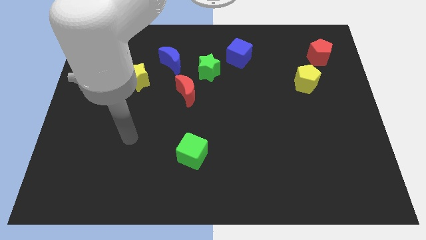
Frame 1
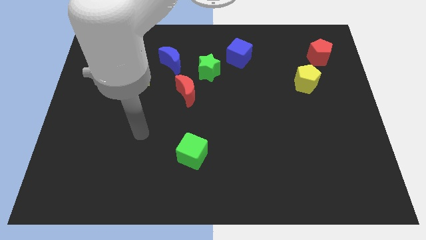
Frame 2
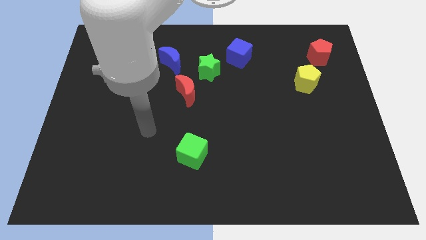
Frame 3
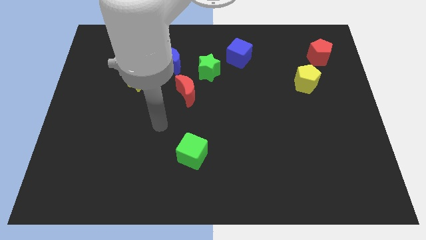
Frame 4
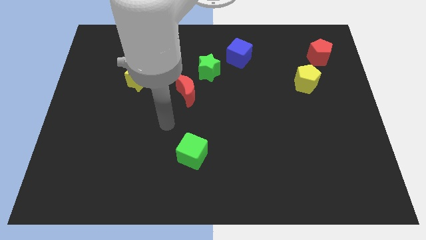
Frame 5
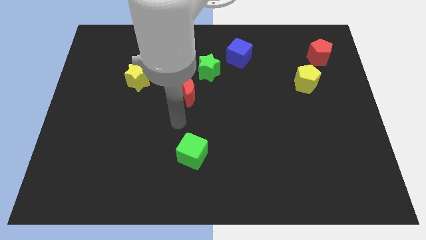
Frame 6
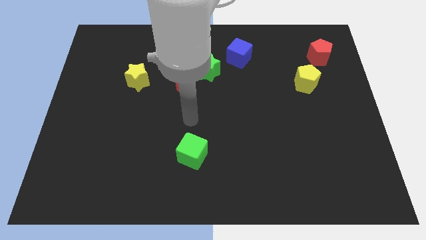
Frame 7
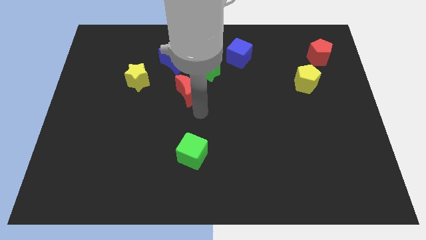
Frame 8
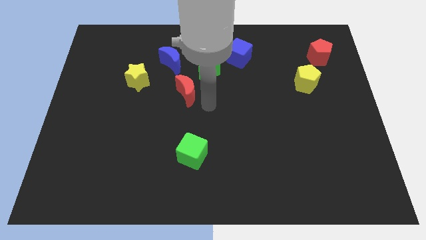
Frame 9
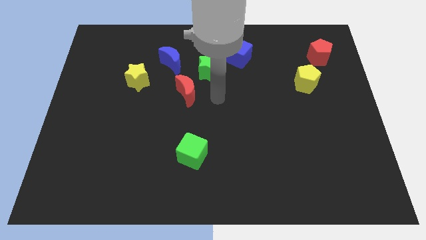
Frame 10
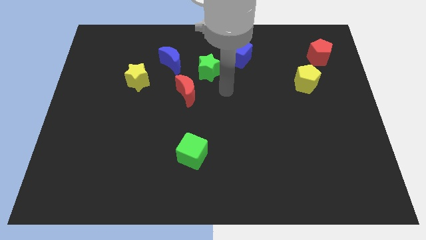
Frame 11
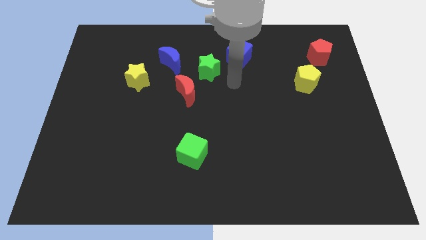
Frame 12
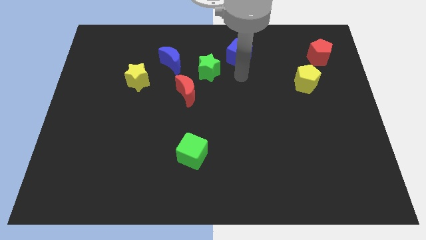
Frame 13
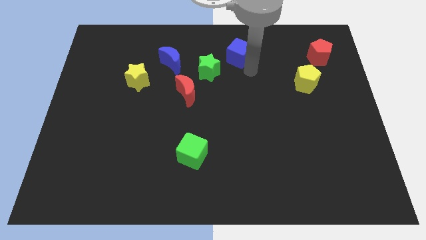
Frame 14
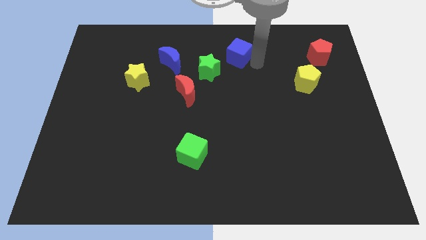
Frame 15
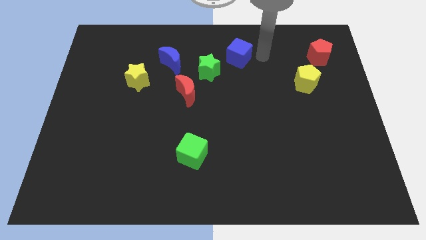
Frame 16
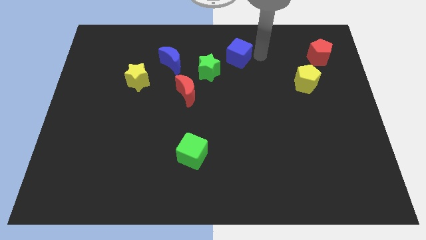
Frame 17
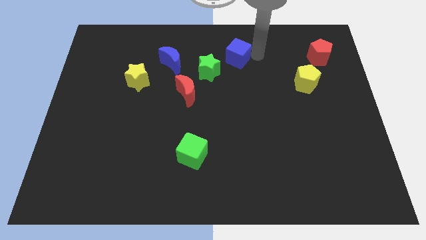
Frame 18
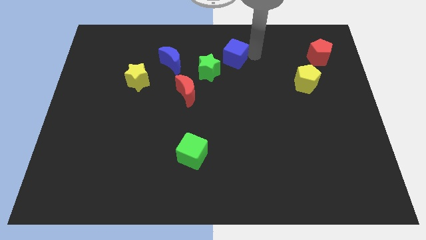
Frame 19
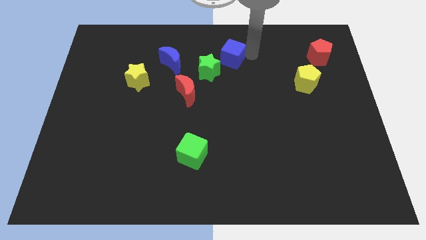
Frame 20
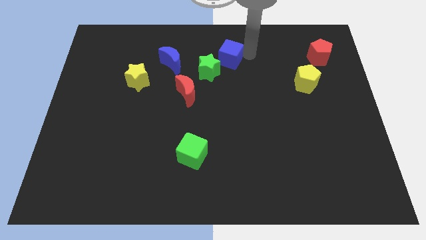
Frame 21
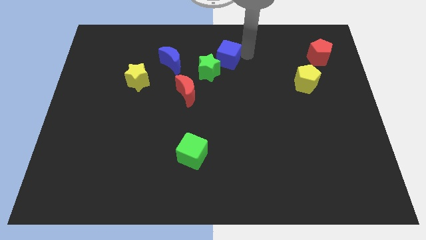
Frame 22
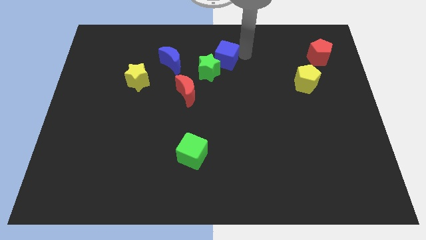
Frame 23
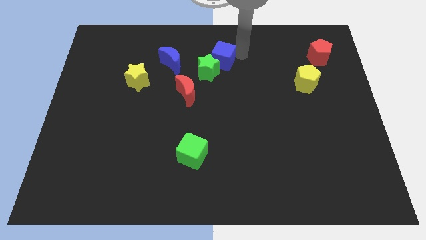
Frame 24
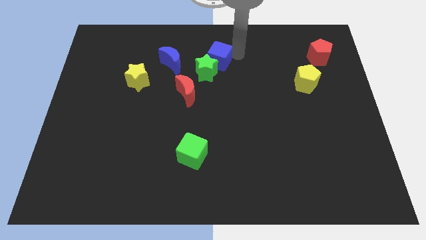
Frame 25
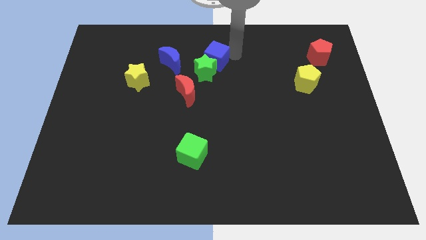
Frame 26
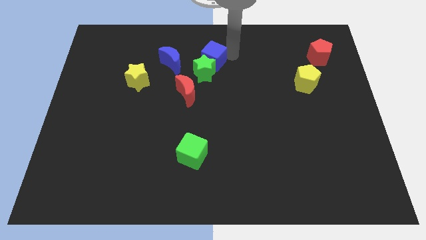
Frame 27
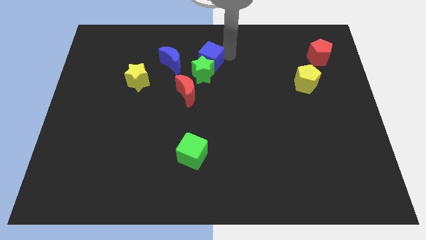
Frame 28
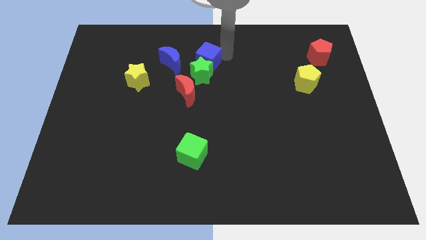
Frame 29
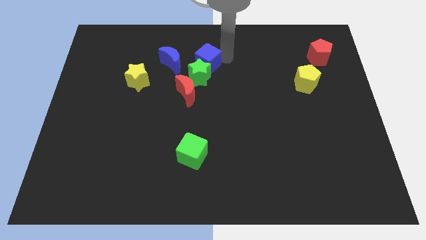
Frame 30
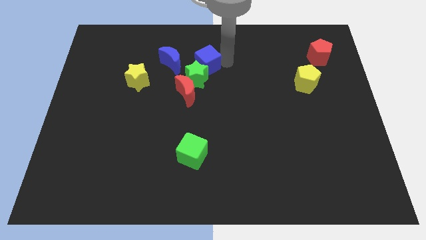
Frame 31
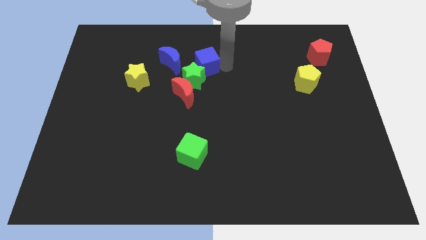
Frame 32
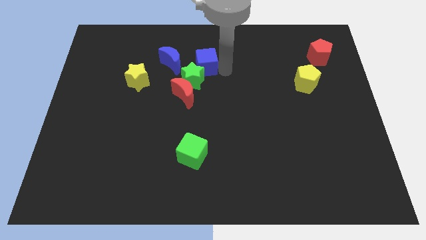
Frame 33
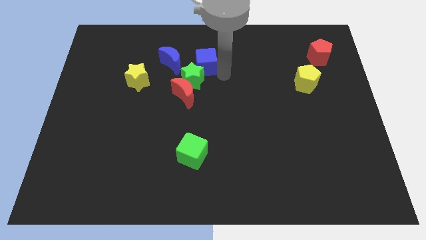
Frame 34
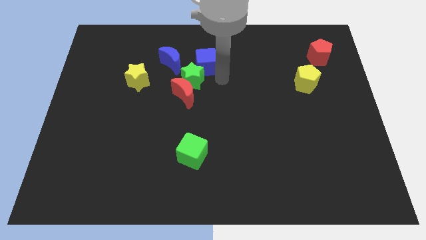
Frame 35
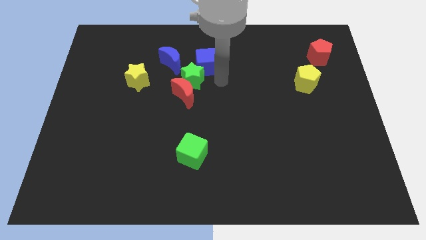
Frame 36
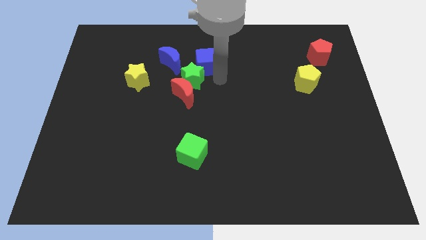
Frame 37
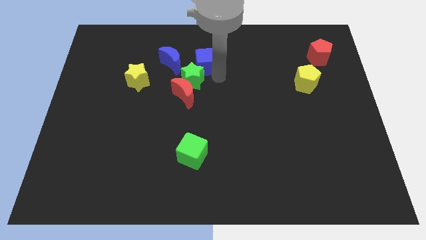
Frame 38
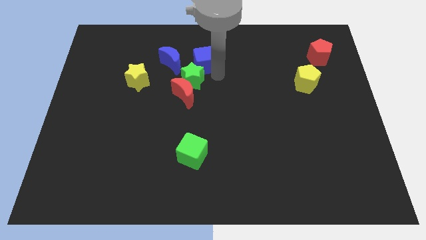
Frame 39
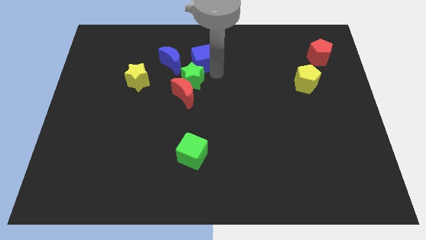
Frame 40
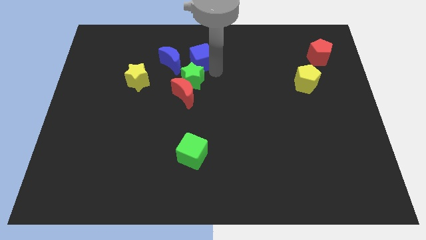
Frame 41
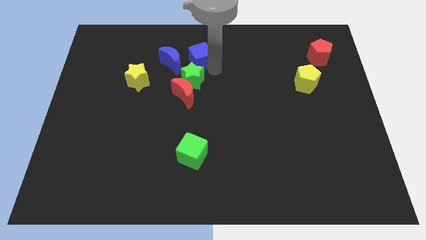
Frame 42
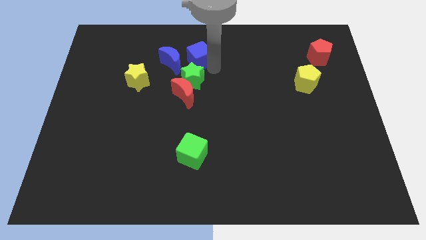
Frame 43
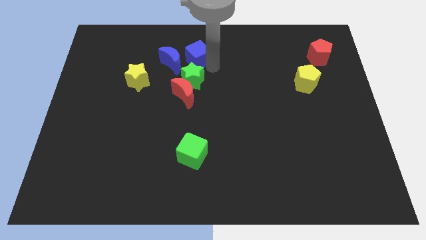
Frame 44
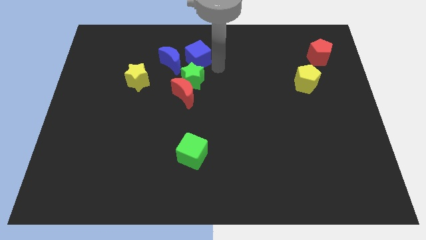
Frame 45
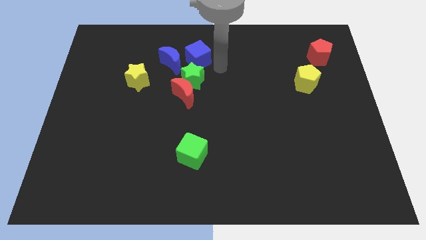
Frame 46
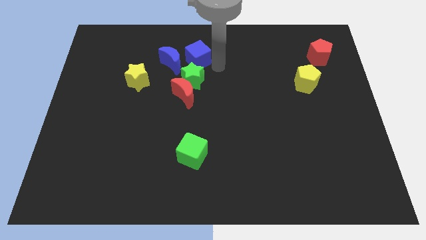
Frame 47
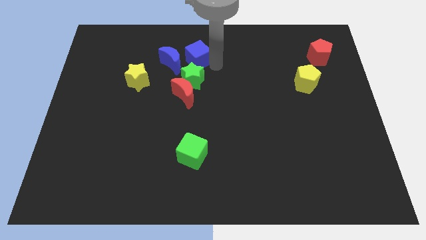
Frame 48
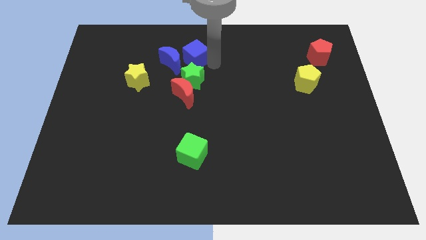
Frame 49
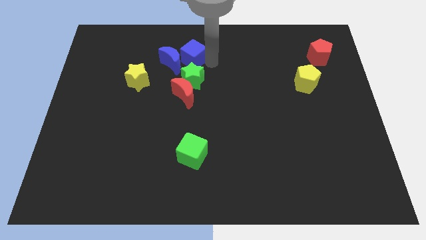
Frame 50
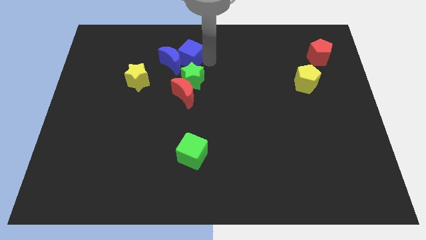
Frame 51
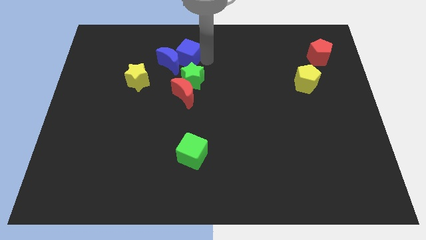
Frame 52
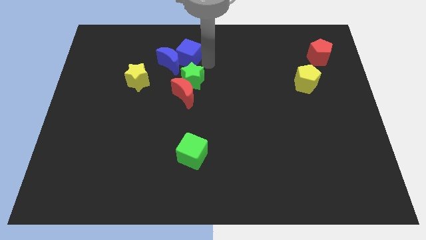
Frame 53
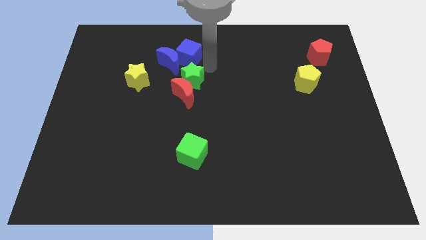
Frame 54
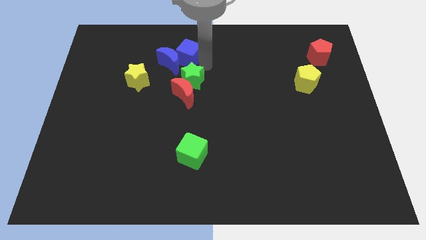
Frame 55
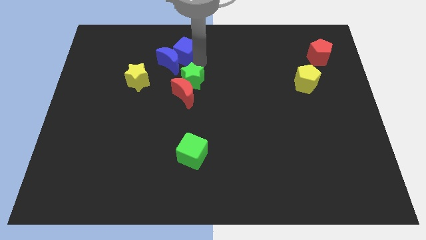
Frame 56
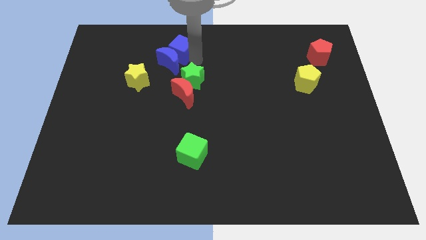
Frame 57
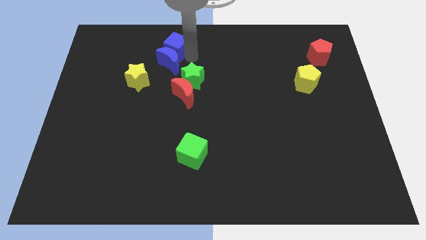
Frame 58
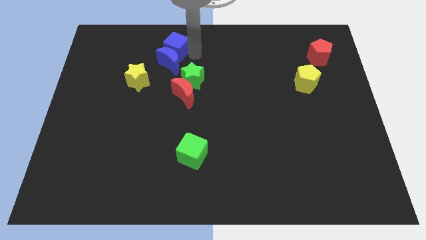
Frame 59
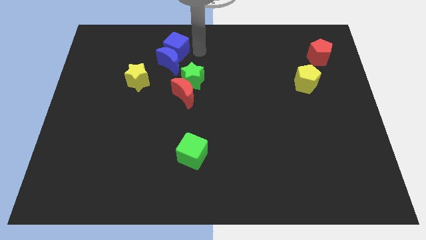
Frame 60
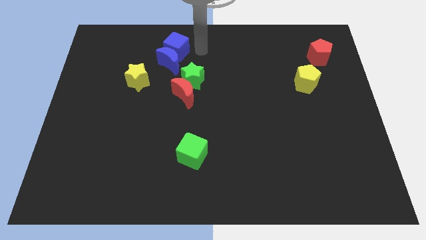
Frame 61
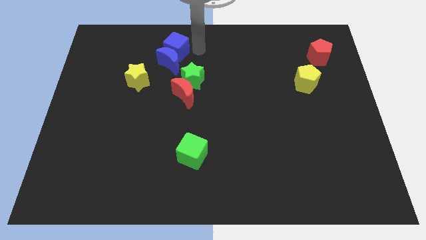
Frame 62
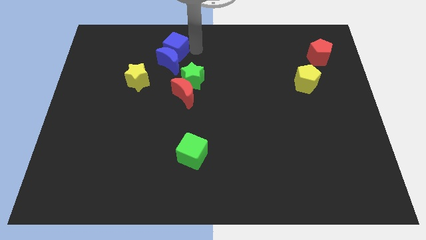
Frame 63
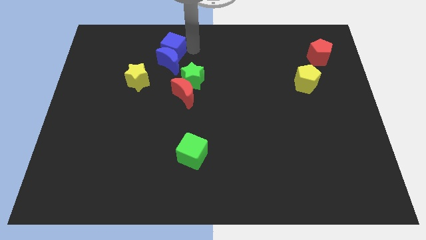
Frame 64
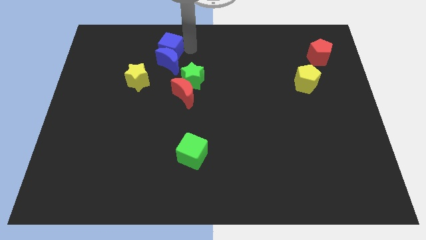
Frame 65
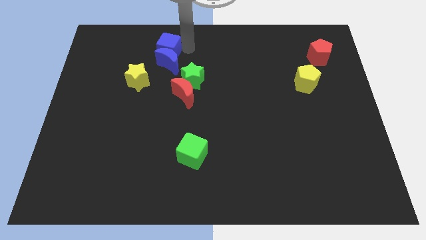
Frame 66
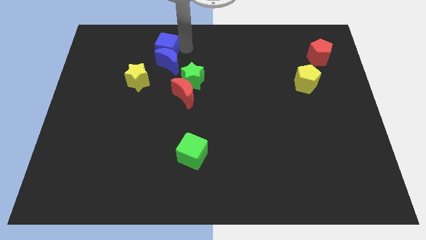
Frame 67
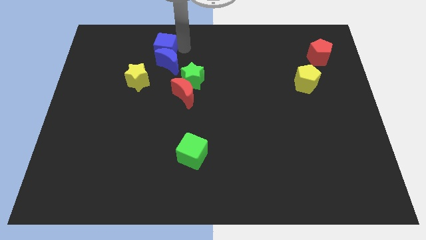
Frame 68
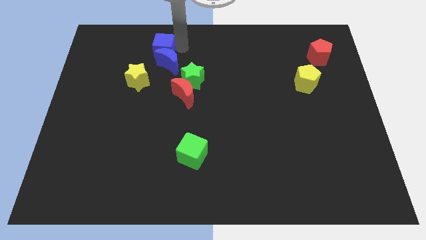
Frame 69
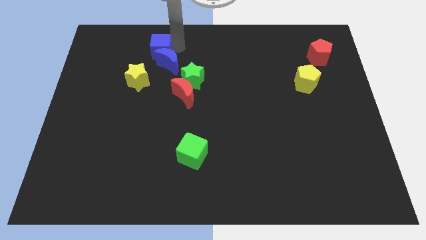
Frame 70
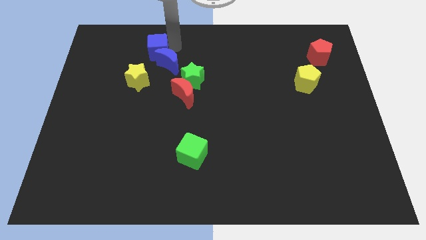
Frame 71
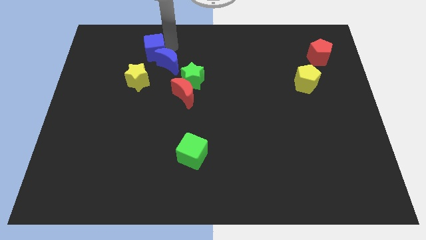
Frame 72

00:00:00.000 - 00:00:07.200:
move the blue cube left of the blue moon

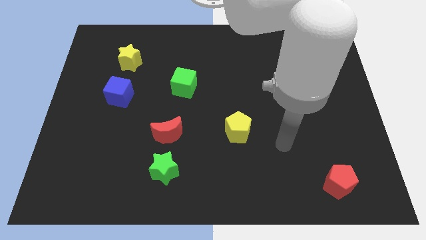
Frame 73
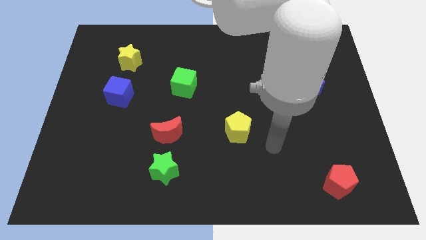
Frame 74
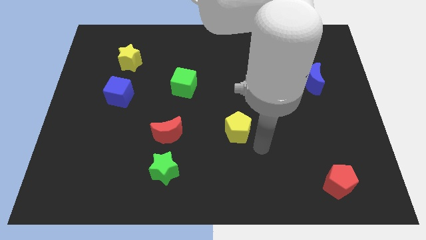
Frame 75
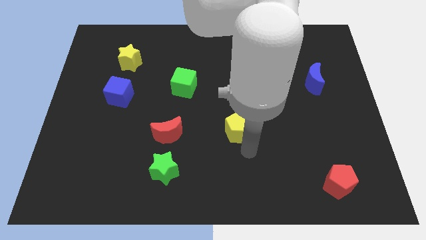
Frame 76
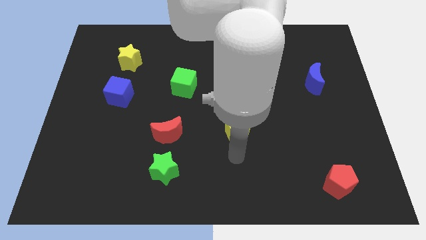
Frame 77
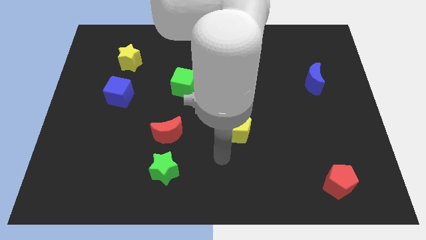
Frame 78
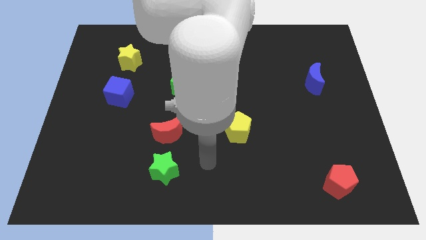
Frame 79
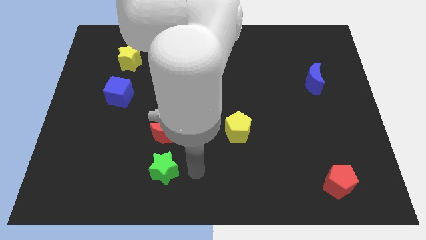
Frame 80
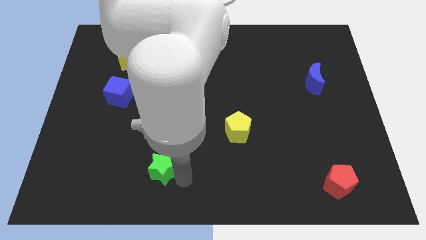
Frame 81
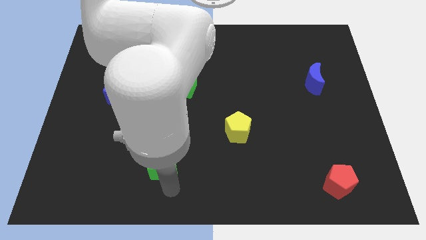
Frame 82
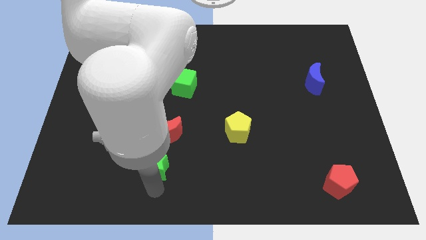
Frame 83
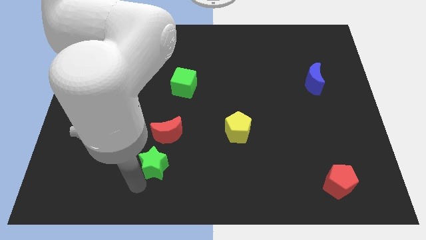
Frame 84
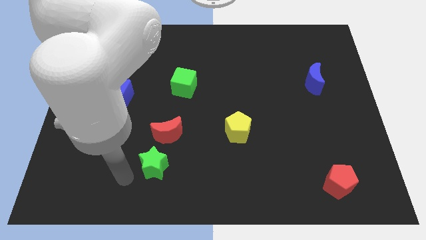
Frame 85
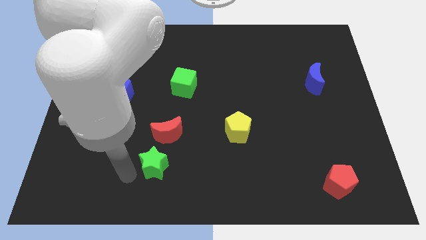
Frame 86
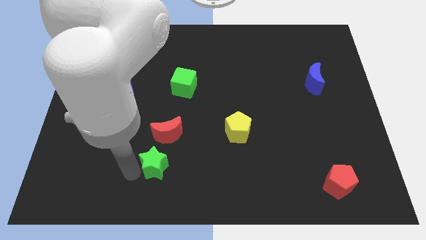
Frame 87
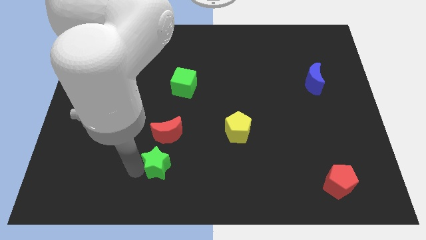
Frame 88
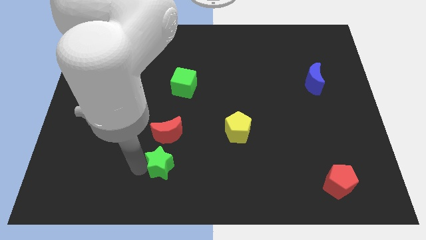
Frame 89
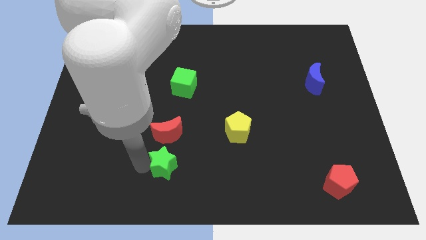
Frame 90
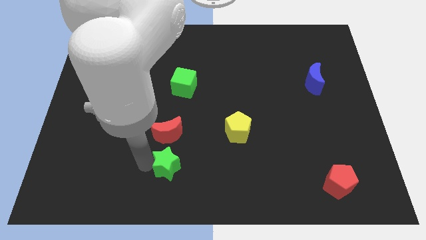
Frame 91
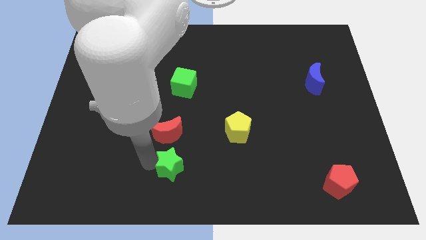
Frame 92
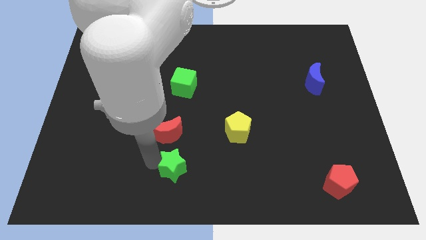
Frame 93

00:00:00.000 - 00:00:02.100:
slide the green star to the bottom right side of the red moon
